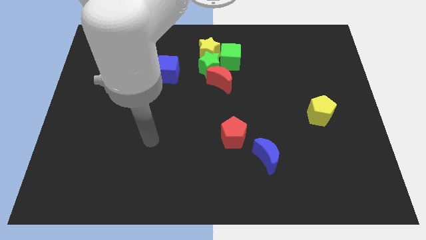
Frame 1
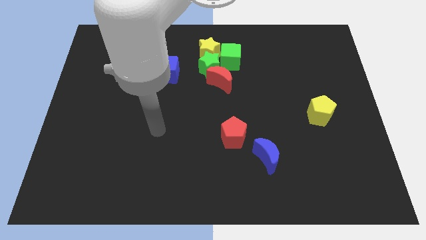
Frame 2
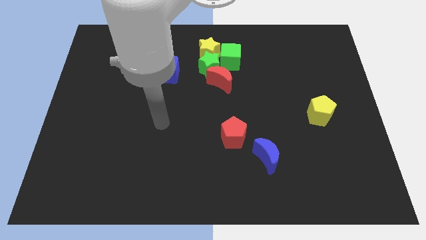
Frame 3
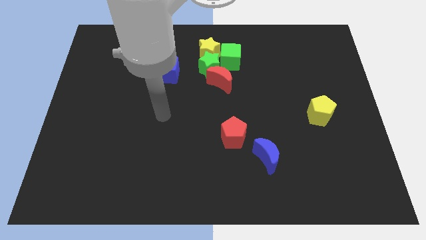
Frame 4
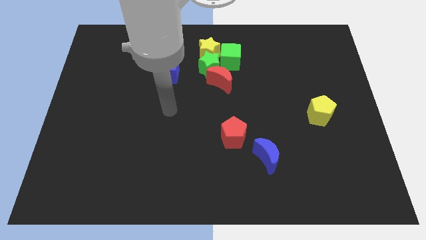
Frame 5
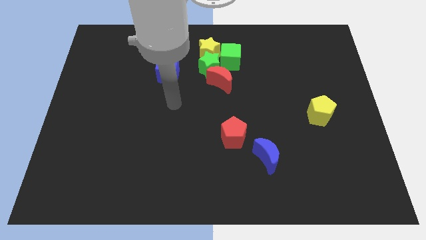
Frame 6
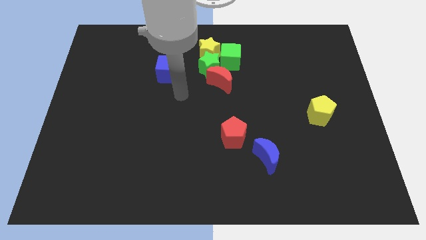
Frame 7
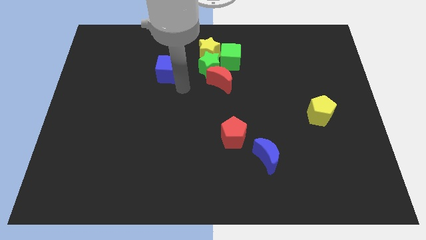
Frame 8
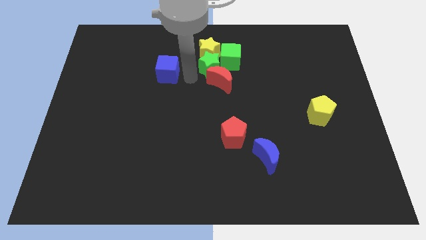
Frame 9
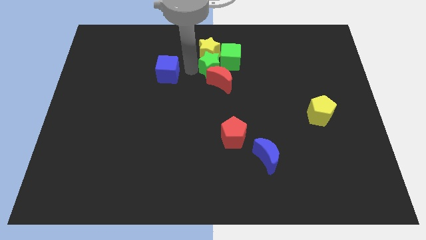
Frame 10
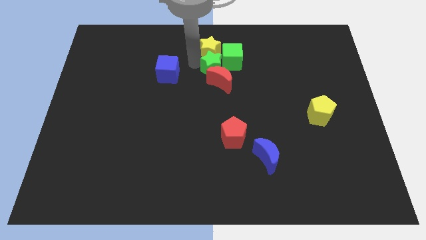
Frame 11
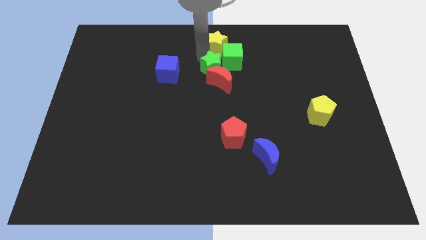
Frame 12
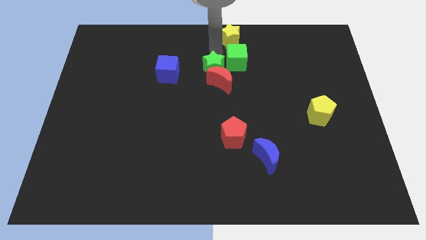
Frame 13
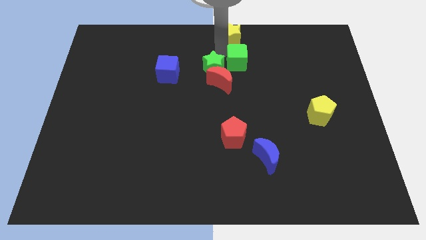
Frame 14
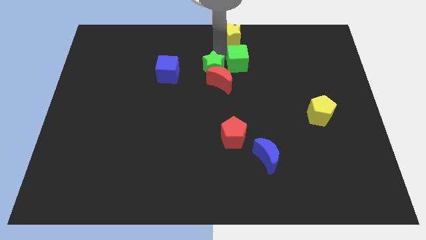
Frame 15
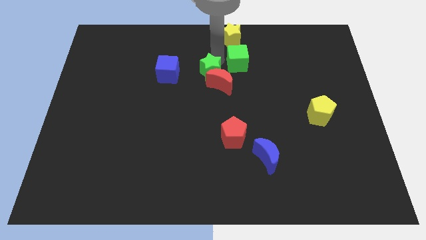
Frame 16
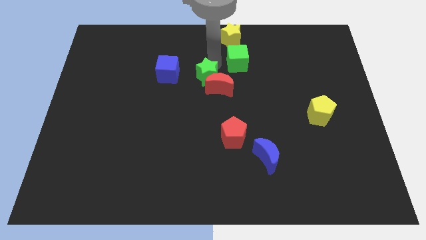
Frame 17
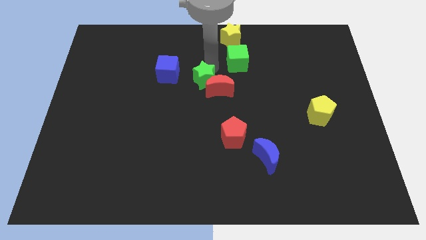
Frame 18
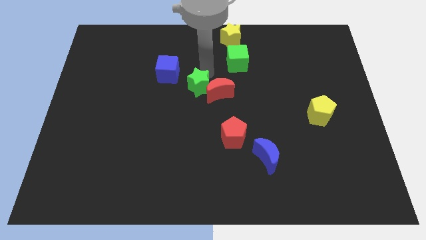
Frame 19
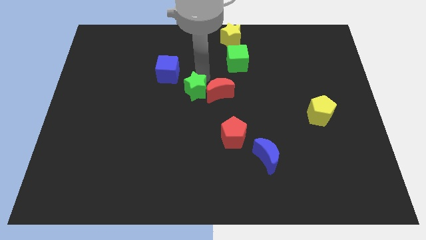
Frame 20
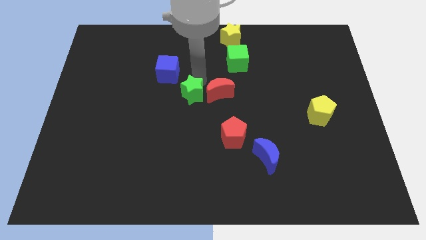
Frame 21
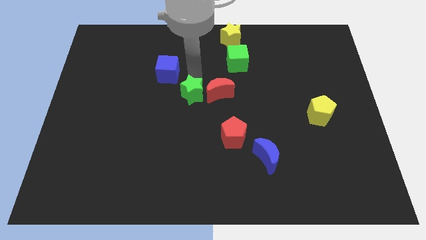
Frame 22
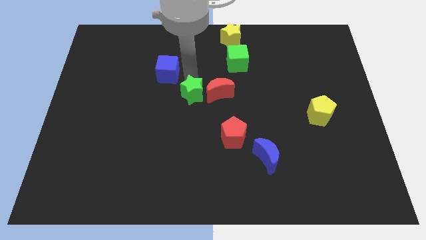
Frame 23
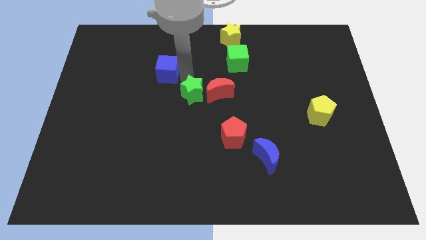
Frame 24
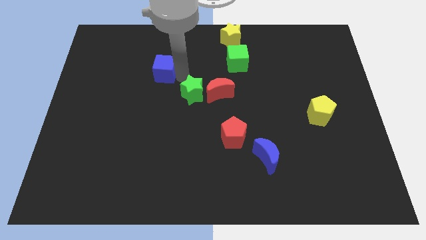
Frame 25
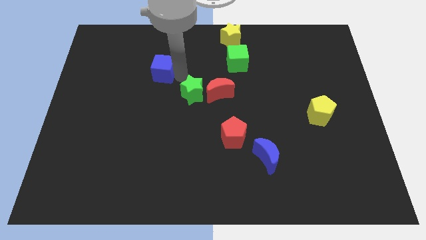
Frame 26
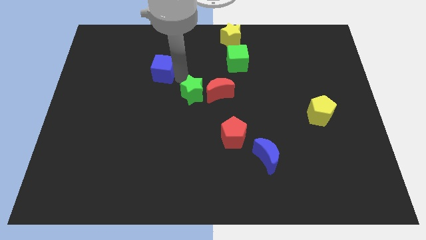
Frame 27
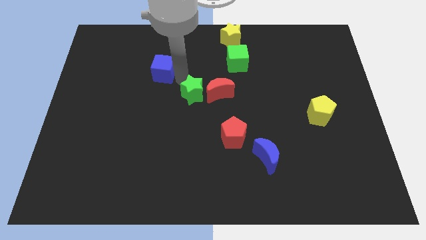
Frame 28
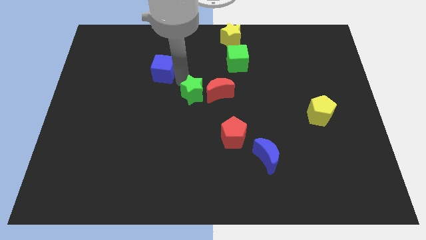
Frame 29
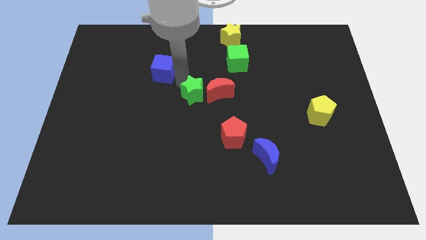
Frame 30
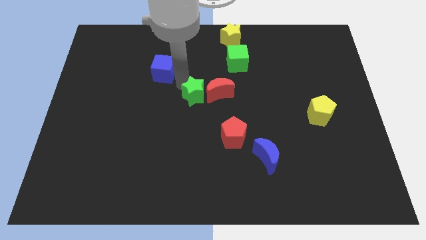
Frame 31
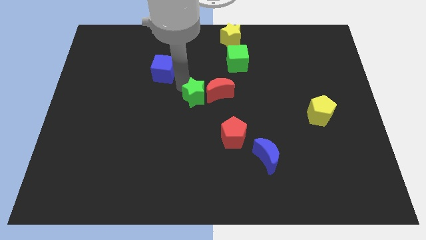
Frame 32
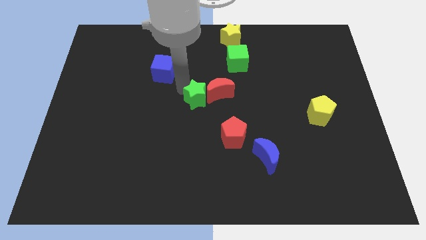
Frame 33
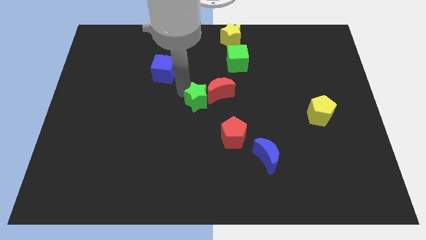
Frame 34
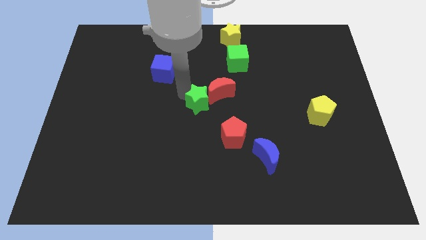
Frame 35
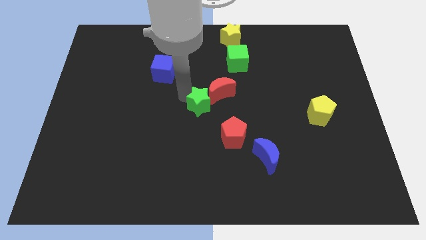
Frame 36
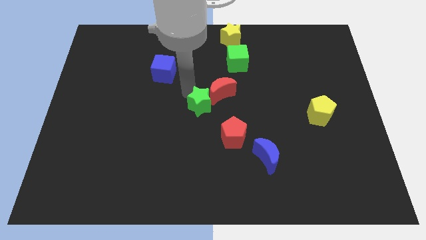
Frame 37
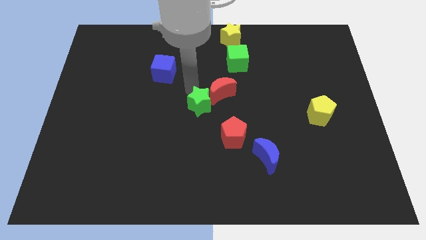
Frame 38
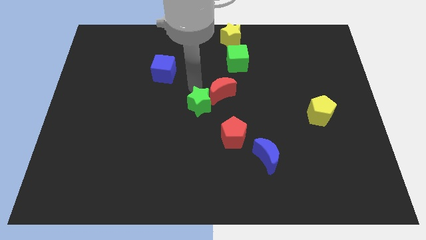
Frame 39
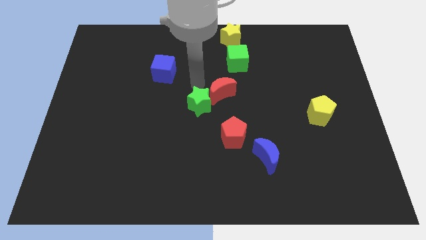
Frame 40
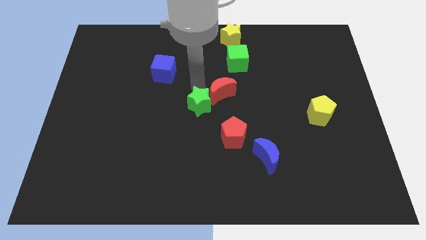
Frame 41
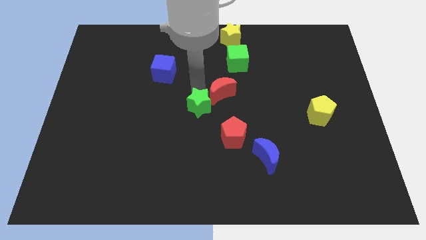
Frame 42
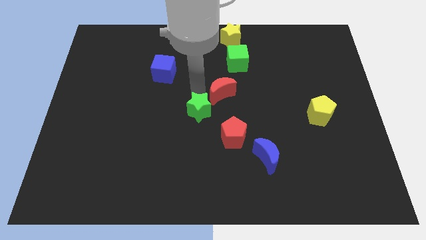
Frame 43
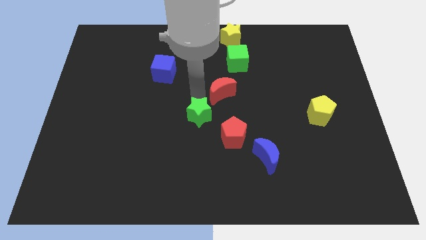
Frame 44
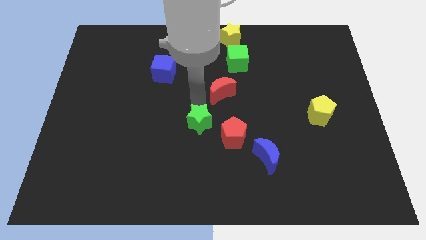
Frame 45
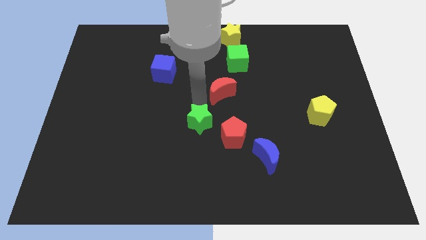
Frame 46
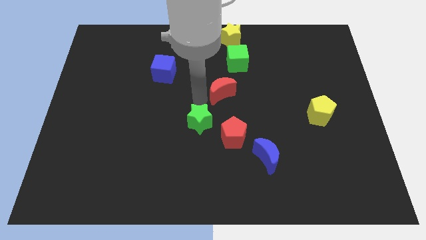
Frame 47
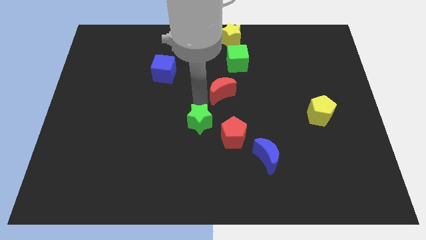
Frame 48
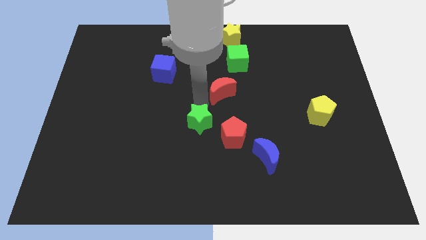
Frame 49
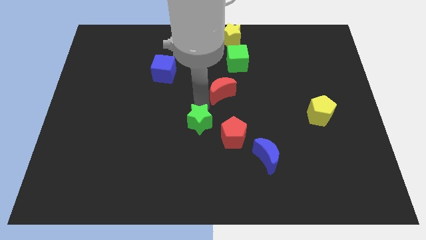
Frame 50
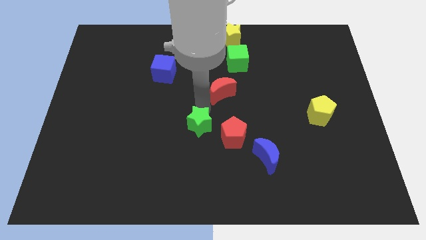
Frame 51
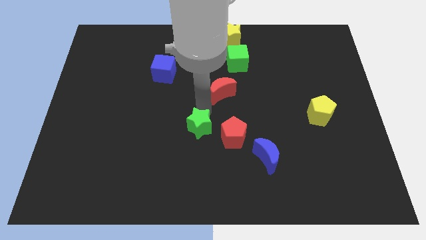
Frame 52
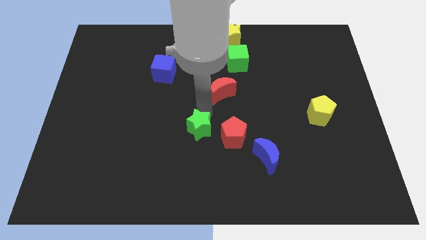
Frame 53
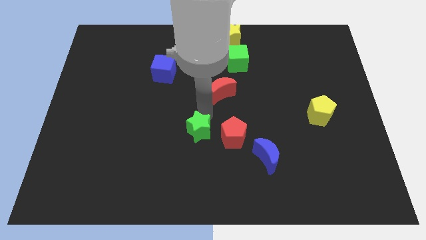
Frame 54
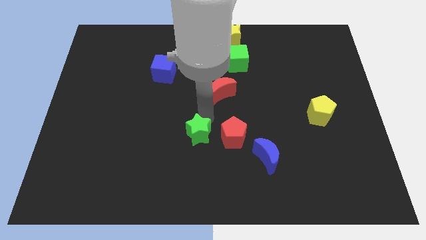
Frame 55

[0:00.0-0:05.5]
move the green star down

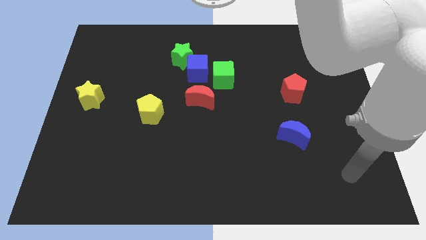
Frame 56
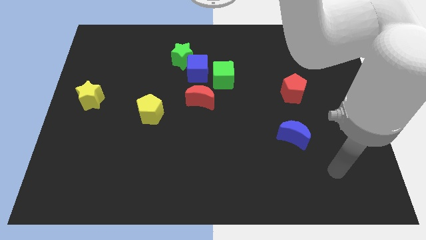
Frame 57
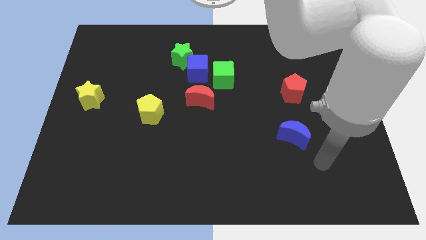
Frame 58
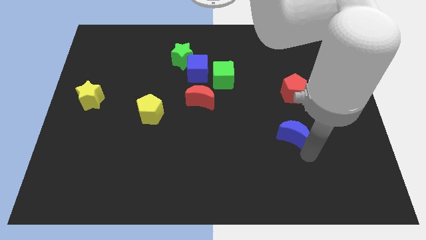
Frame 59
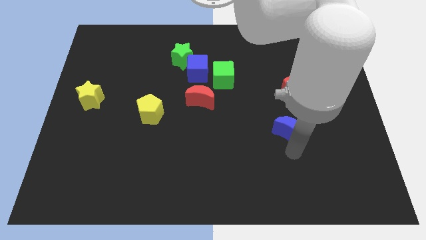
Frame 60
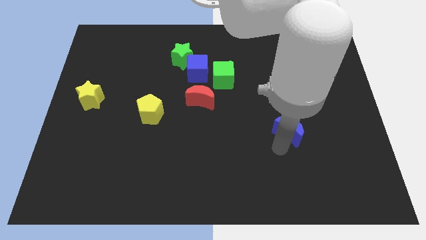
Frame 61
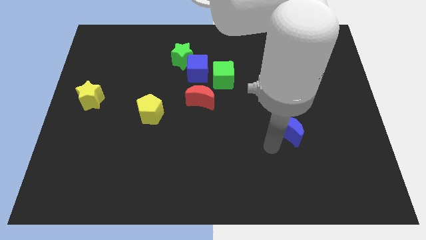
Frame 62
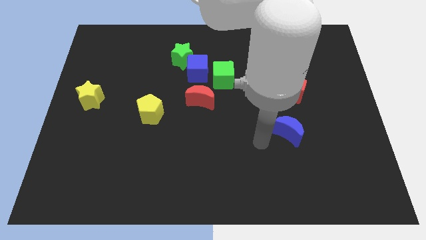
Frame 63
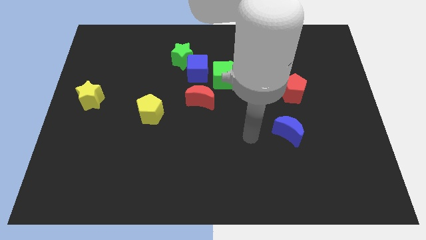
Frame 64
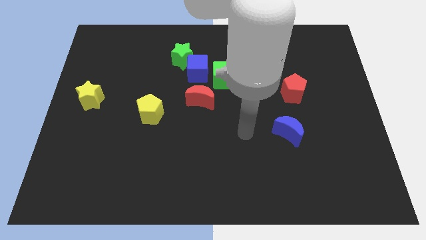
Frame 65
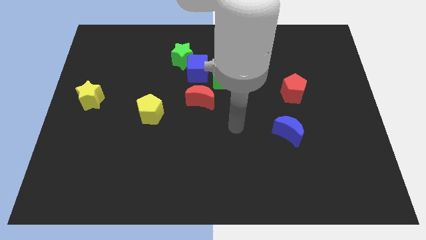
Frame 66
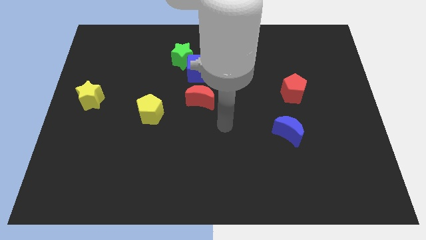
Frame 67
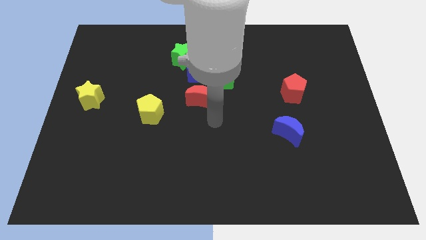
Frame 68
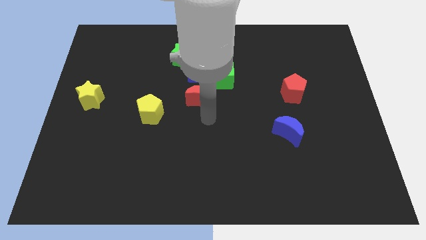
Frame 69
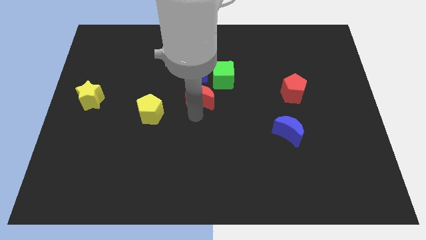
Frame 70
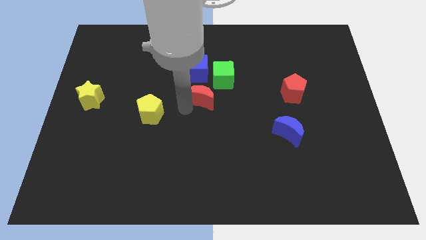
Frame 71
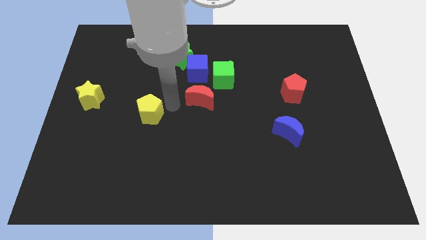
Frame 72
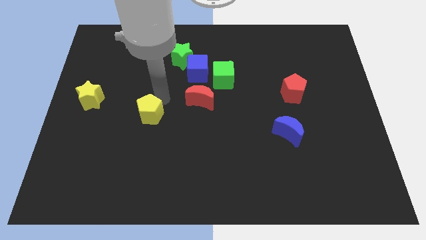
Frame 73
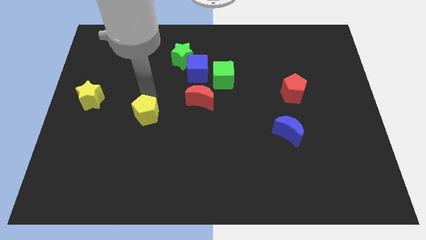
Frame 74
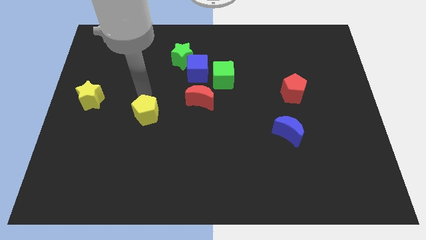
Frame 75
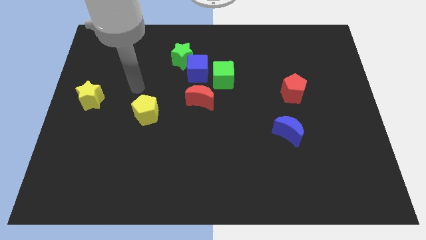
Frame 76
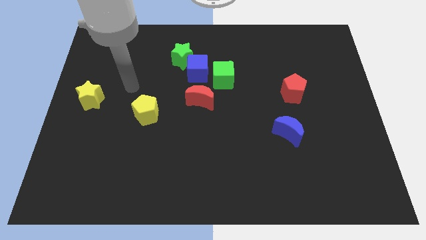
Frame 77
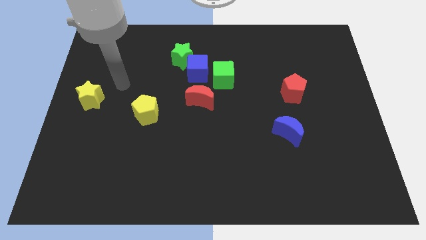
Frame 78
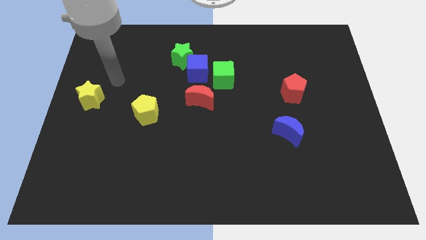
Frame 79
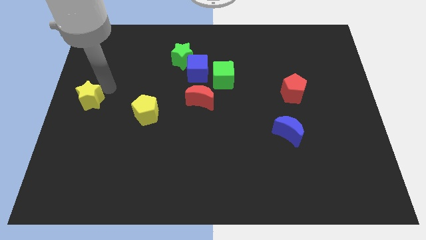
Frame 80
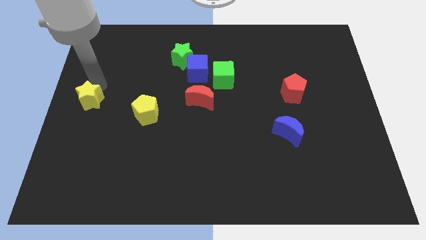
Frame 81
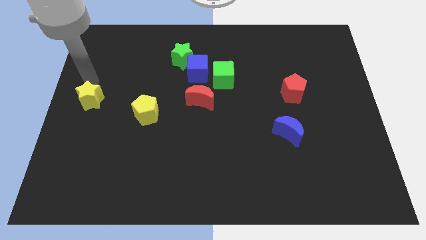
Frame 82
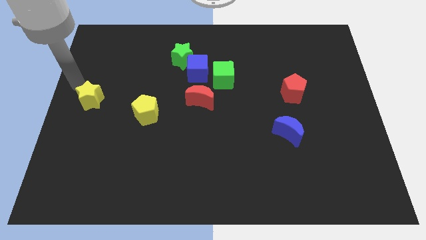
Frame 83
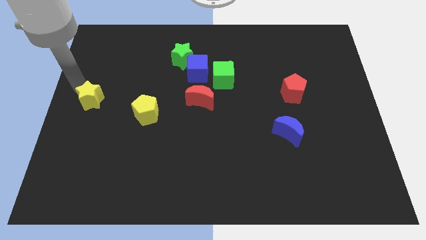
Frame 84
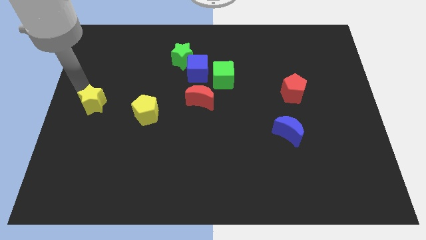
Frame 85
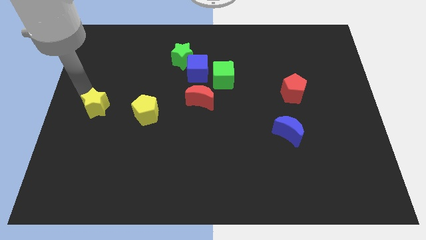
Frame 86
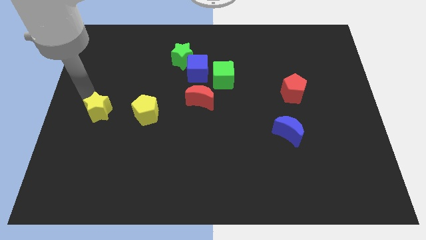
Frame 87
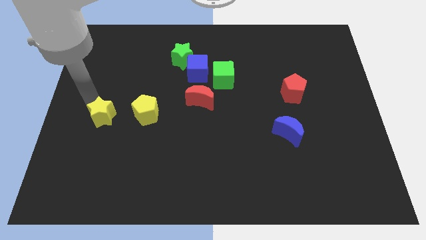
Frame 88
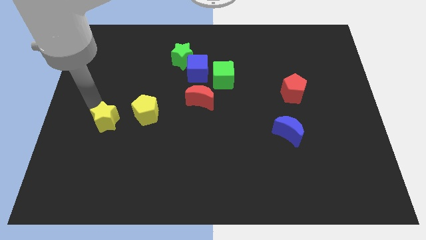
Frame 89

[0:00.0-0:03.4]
slightly move the yellow star down and to the right
